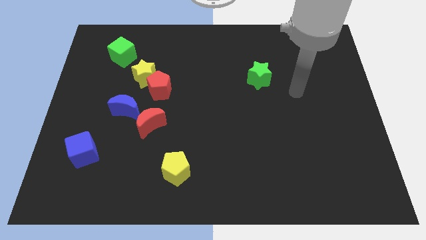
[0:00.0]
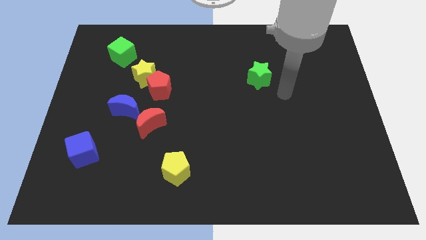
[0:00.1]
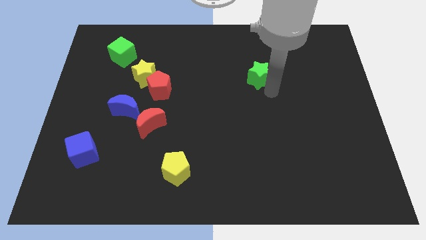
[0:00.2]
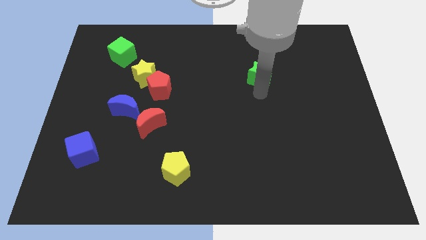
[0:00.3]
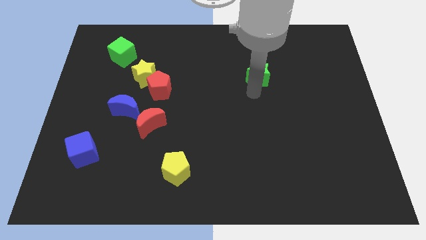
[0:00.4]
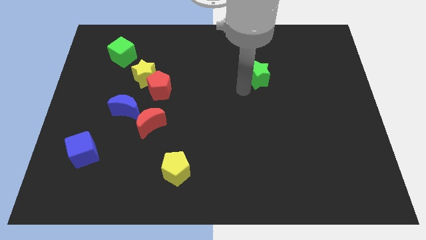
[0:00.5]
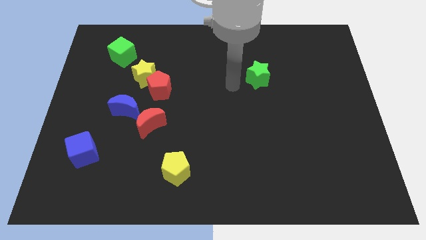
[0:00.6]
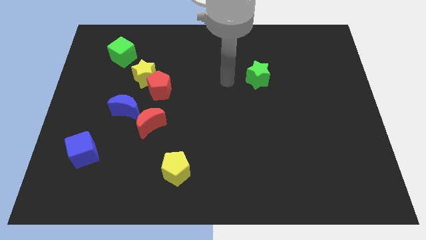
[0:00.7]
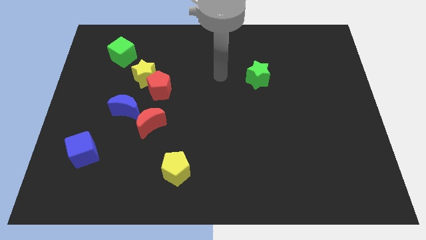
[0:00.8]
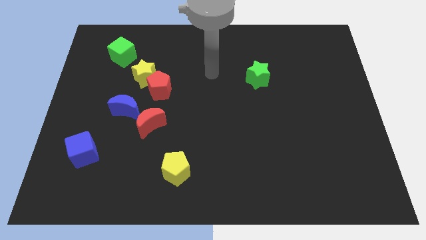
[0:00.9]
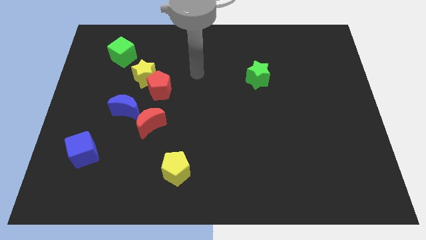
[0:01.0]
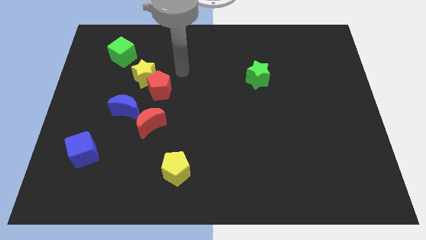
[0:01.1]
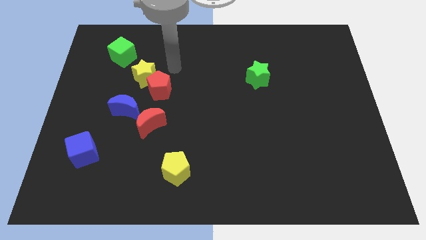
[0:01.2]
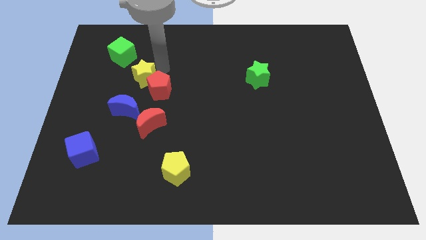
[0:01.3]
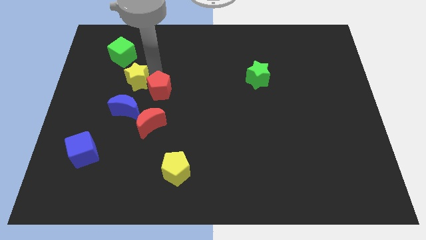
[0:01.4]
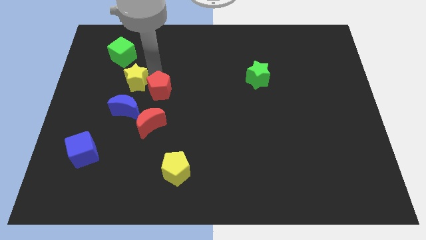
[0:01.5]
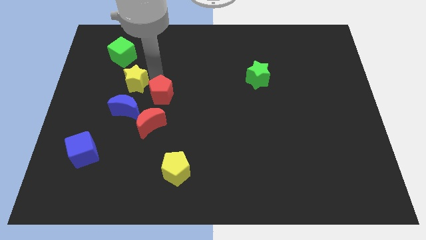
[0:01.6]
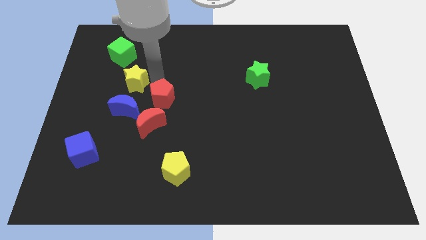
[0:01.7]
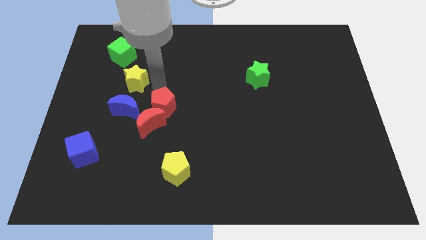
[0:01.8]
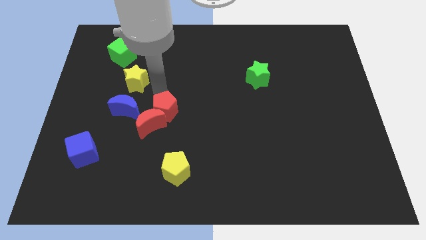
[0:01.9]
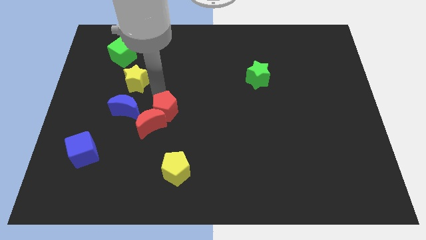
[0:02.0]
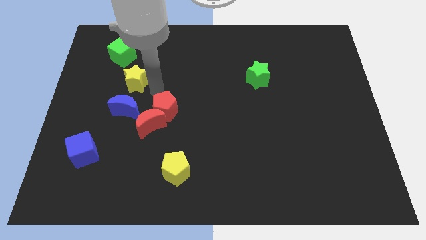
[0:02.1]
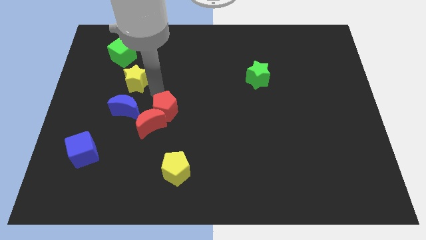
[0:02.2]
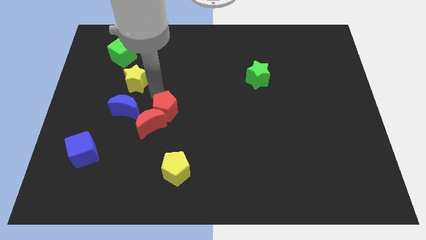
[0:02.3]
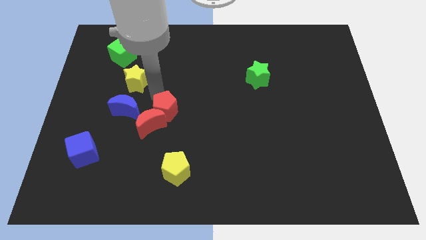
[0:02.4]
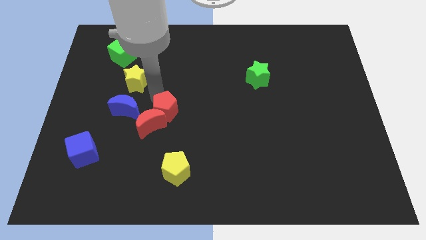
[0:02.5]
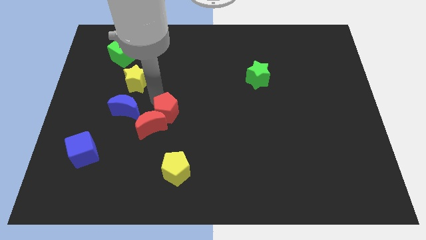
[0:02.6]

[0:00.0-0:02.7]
move the red pentagon a bit down

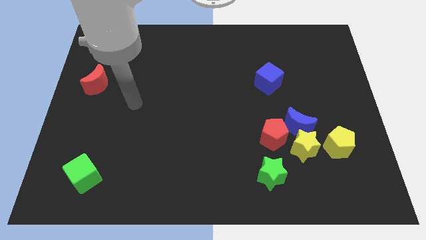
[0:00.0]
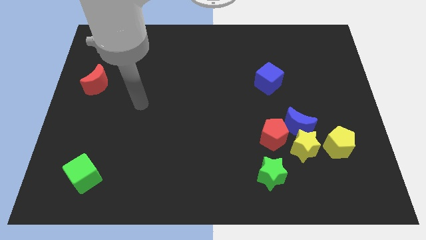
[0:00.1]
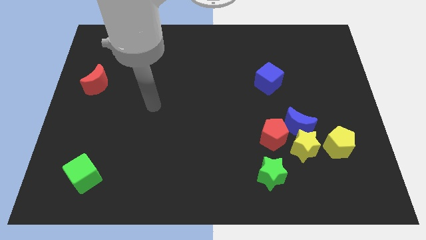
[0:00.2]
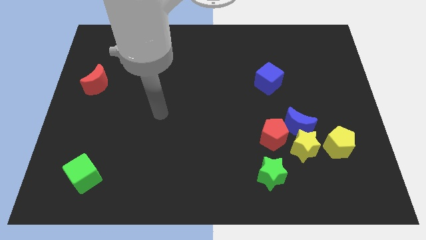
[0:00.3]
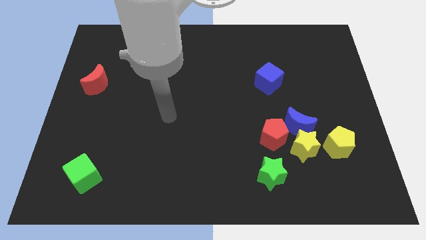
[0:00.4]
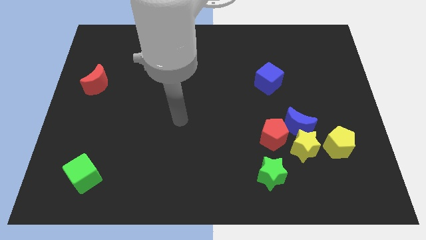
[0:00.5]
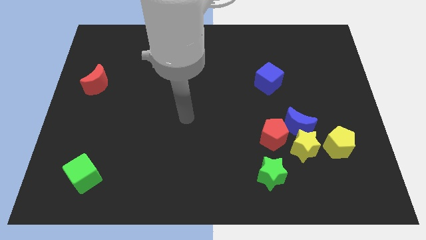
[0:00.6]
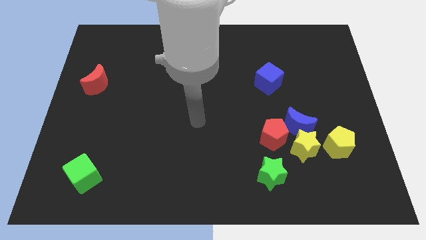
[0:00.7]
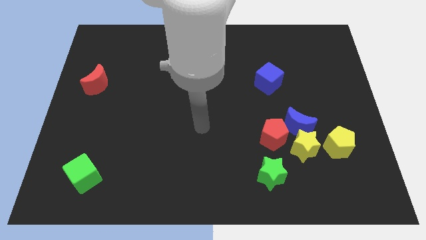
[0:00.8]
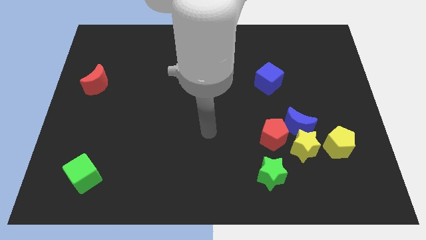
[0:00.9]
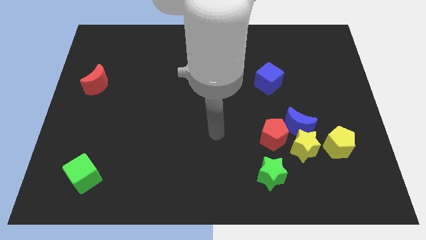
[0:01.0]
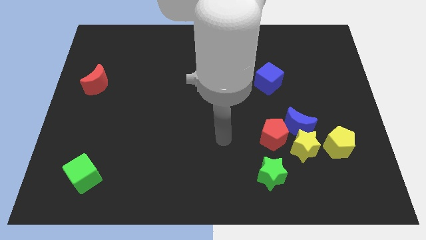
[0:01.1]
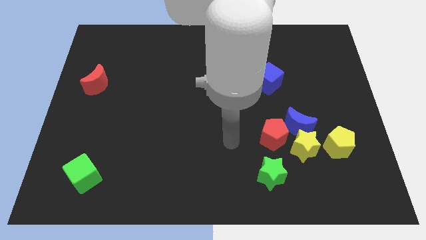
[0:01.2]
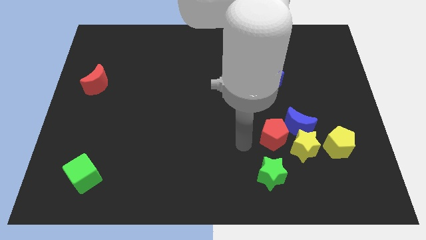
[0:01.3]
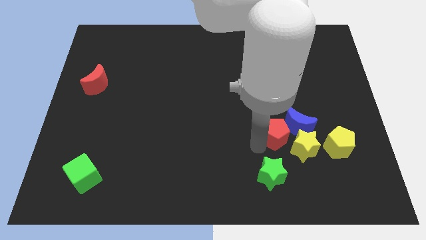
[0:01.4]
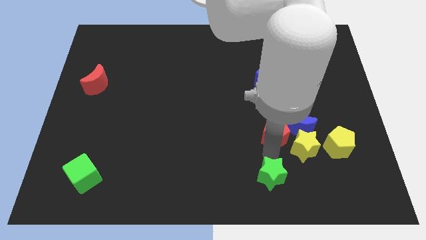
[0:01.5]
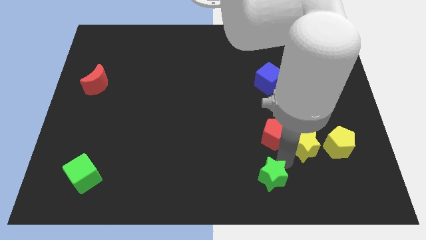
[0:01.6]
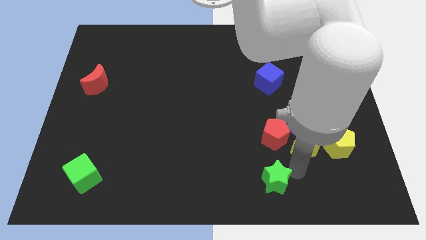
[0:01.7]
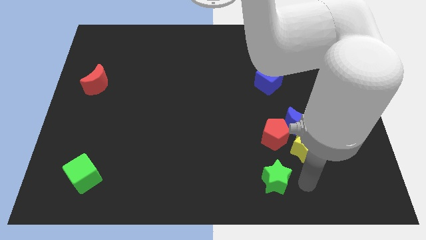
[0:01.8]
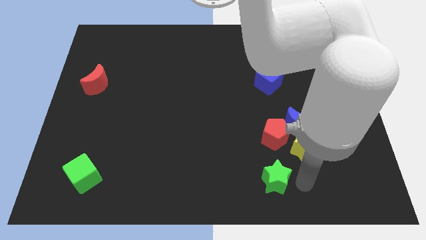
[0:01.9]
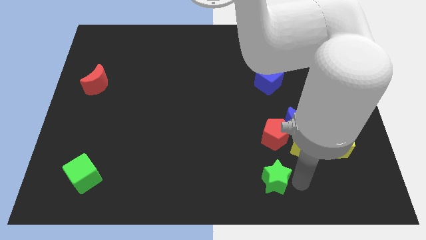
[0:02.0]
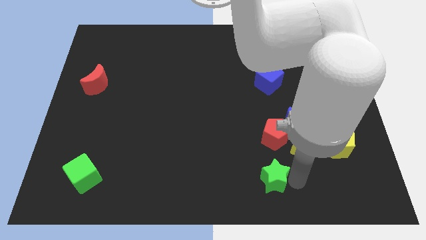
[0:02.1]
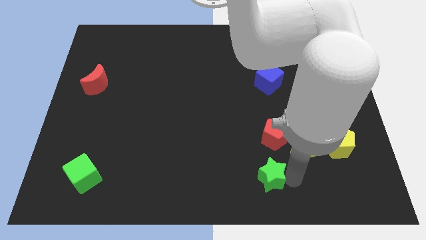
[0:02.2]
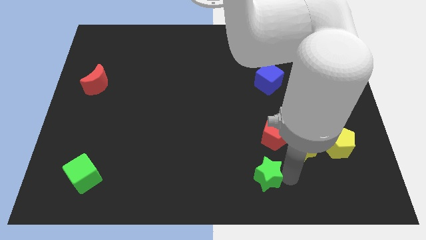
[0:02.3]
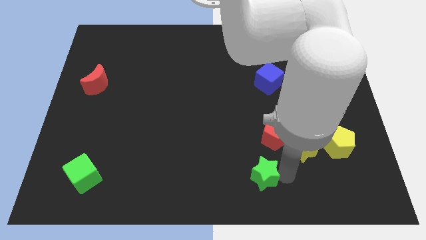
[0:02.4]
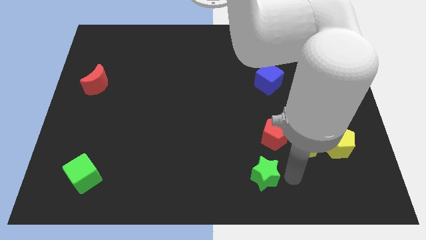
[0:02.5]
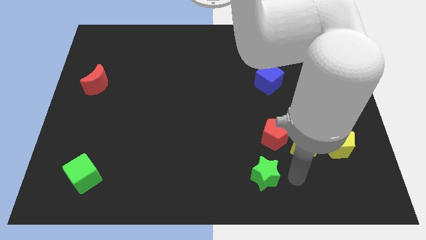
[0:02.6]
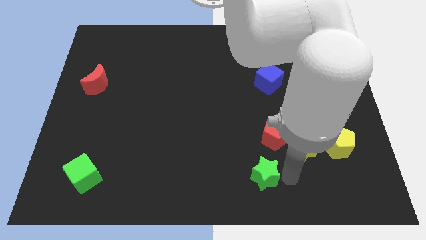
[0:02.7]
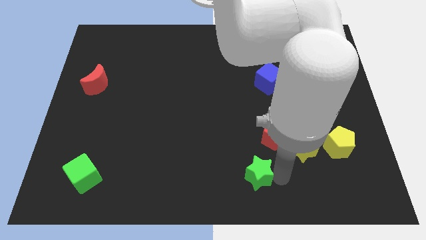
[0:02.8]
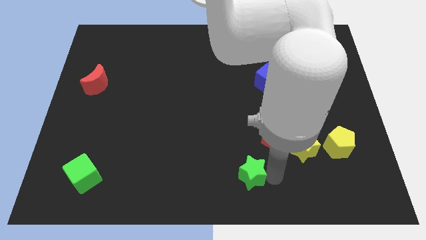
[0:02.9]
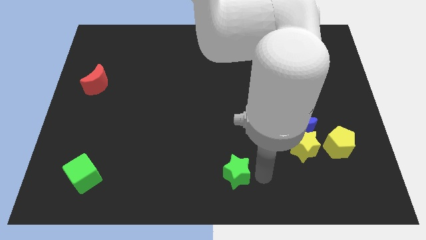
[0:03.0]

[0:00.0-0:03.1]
slide the green star left a bit

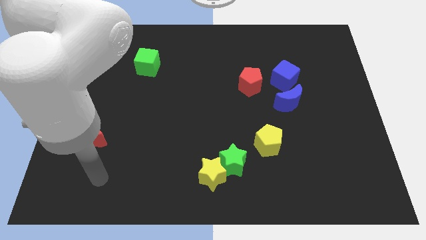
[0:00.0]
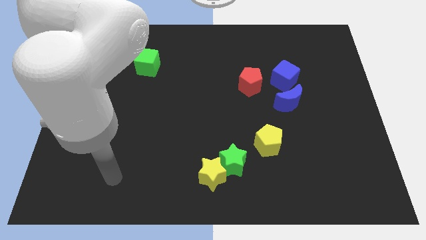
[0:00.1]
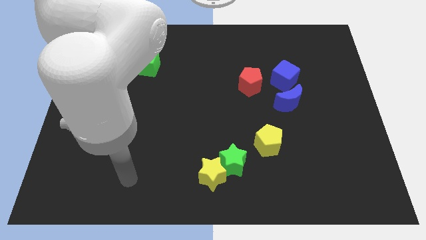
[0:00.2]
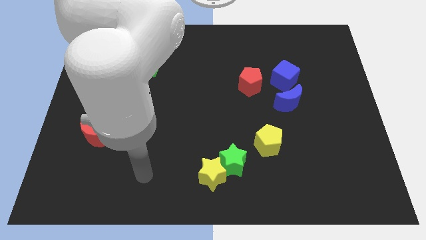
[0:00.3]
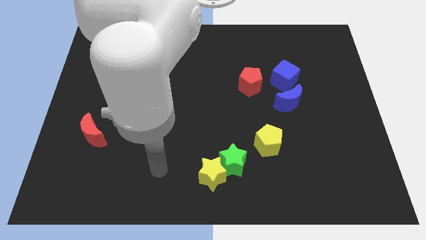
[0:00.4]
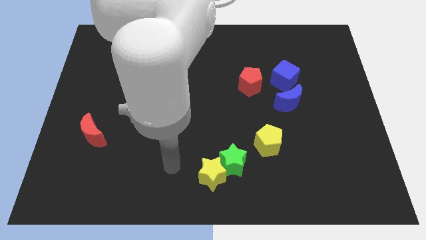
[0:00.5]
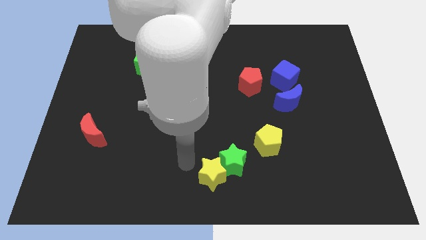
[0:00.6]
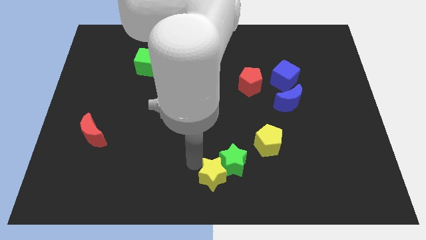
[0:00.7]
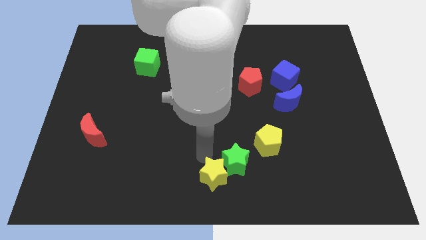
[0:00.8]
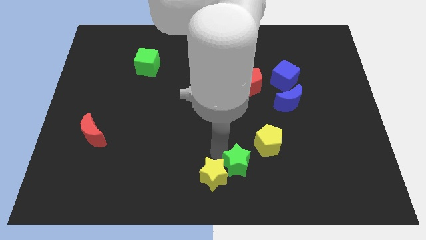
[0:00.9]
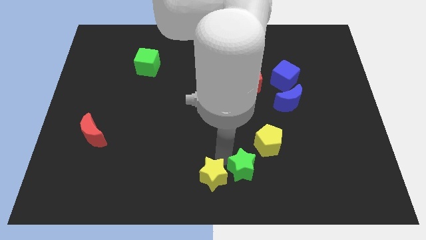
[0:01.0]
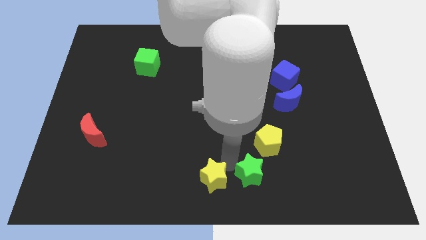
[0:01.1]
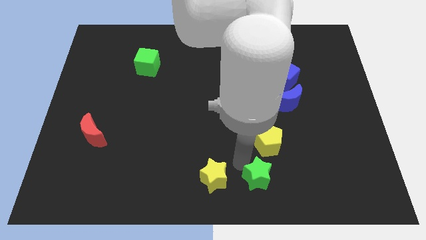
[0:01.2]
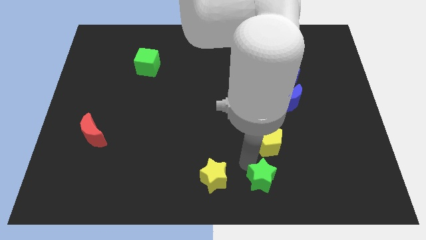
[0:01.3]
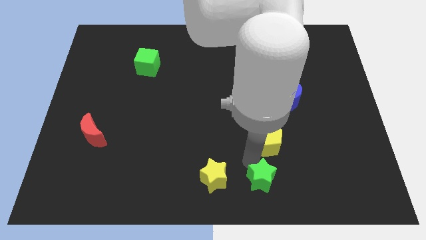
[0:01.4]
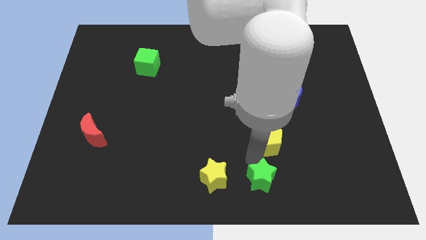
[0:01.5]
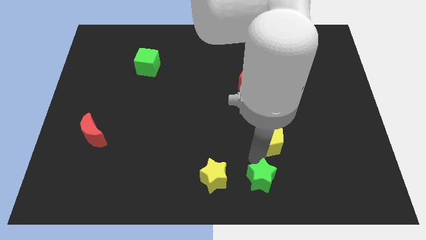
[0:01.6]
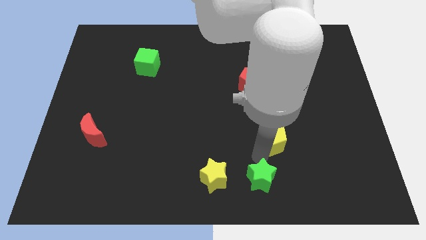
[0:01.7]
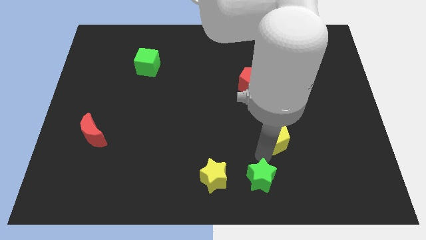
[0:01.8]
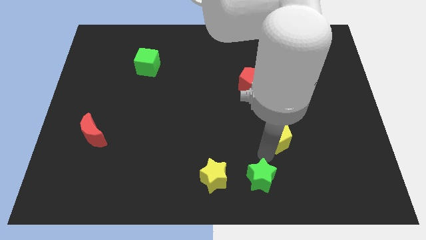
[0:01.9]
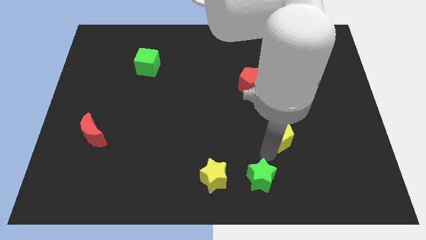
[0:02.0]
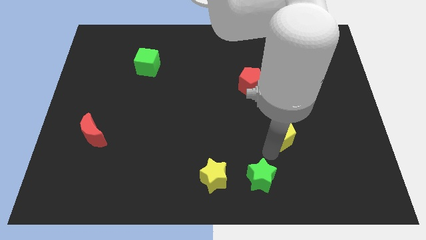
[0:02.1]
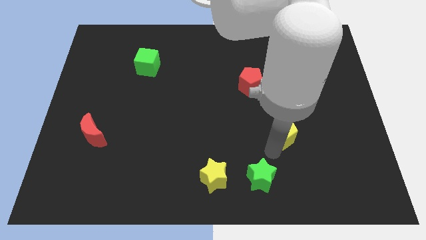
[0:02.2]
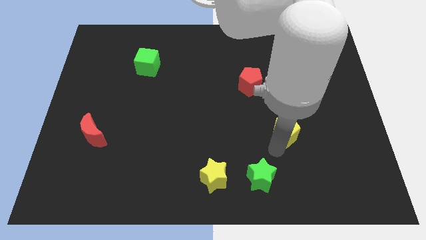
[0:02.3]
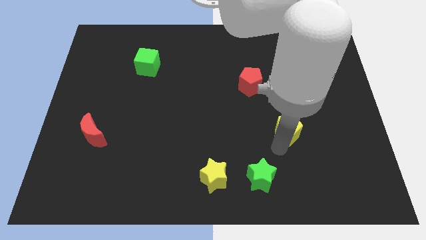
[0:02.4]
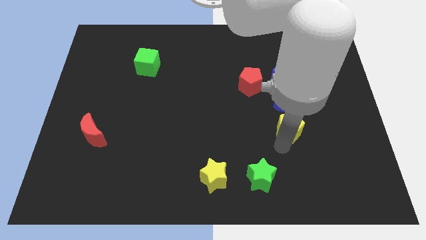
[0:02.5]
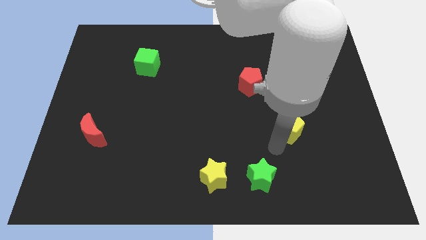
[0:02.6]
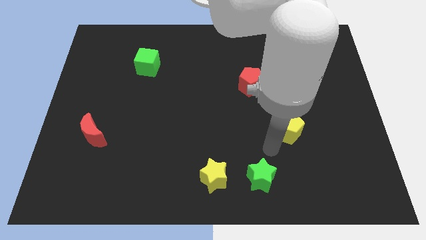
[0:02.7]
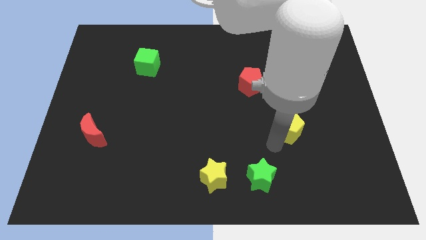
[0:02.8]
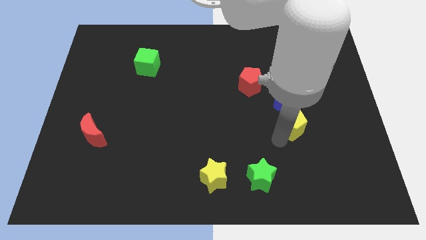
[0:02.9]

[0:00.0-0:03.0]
push the yellow pentagon somewhat diagonally upwards and right
